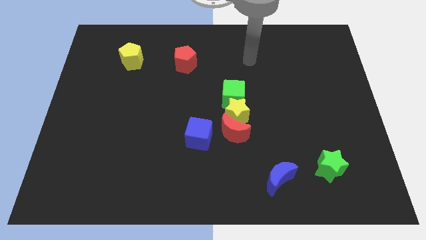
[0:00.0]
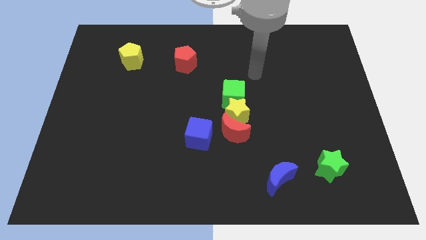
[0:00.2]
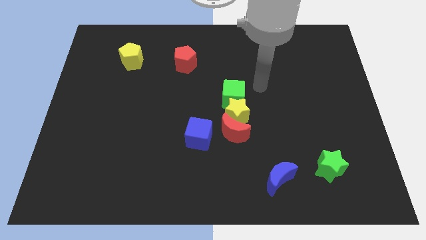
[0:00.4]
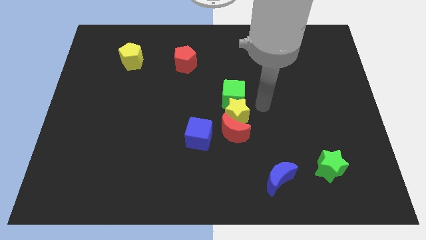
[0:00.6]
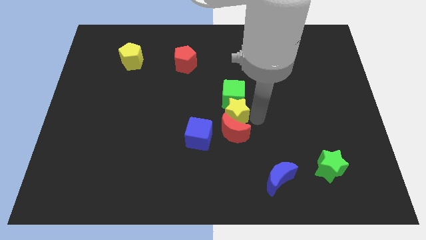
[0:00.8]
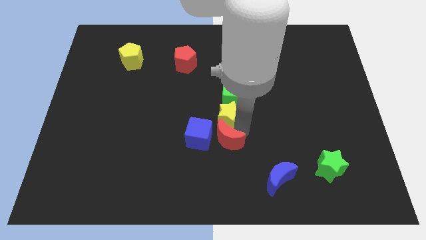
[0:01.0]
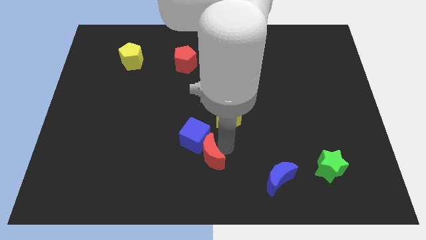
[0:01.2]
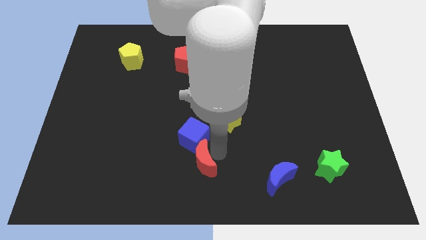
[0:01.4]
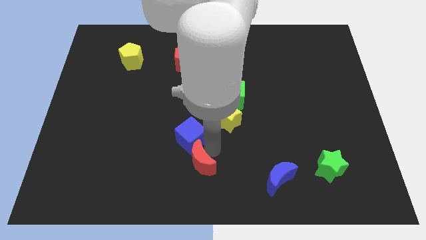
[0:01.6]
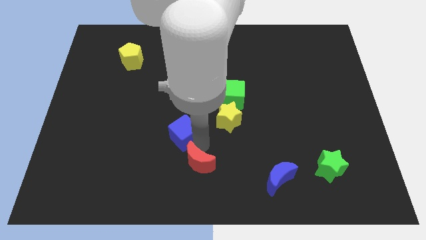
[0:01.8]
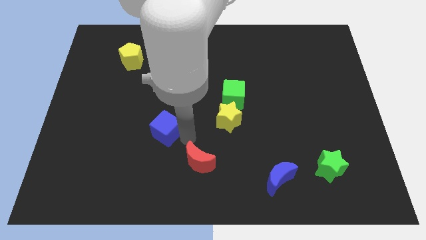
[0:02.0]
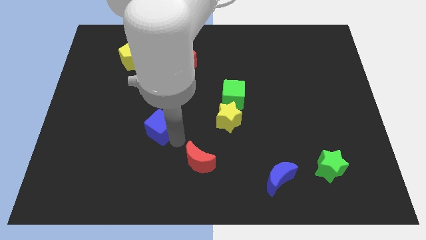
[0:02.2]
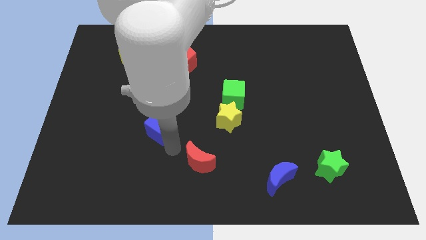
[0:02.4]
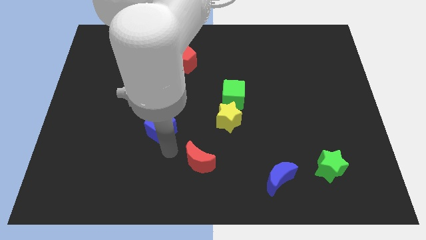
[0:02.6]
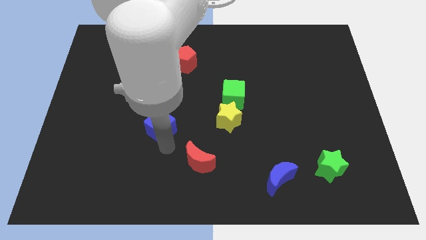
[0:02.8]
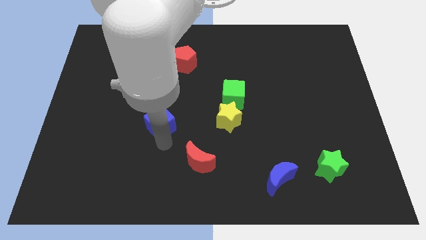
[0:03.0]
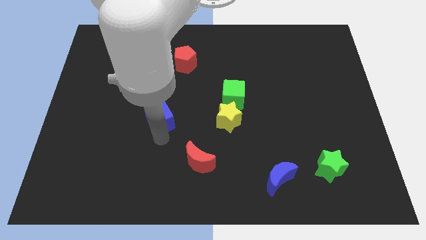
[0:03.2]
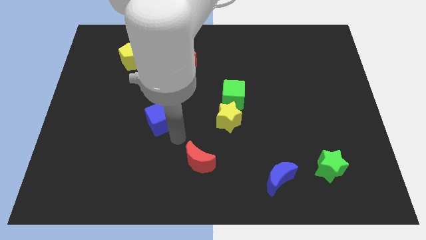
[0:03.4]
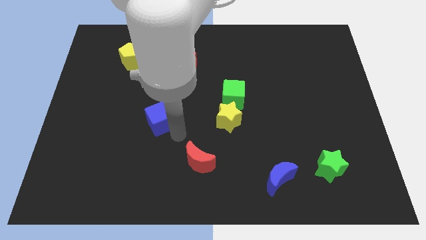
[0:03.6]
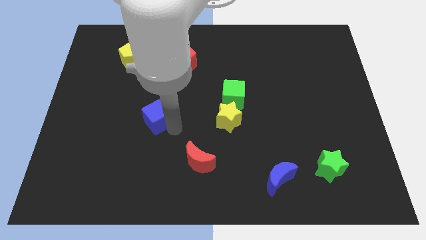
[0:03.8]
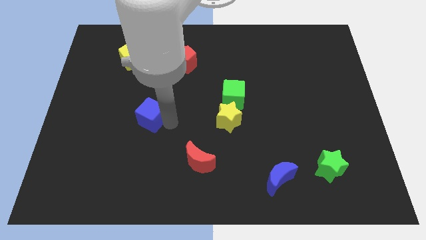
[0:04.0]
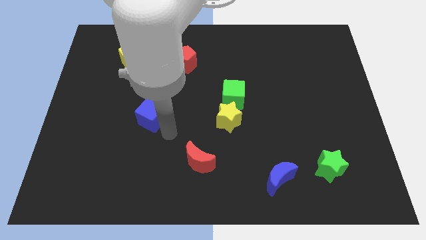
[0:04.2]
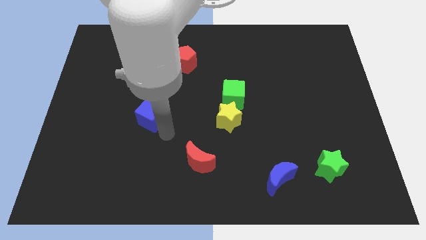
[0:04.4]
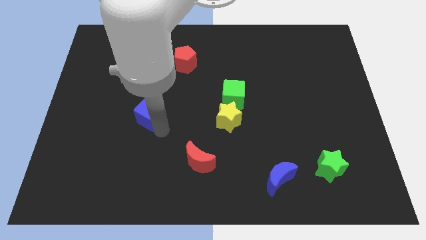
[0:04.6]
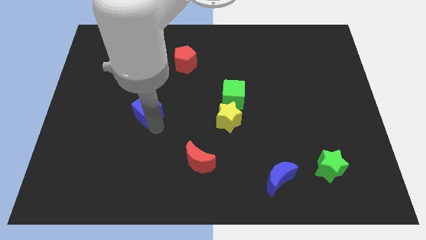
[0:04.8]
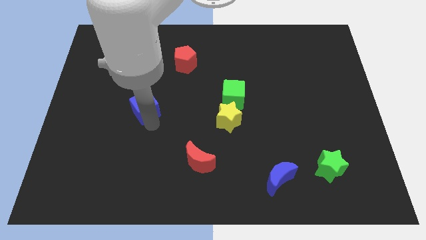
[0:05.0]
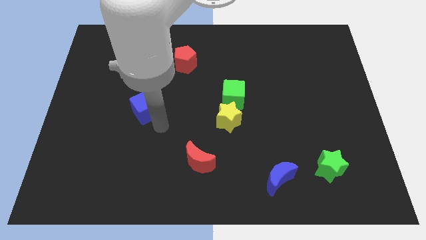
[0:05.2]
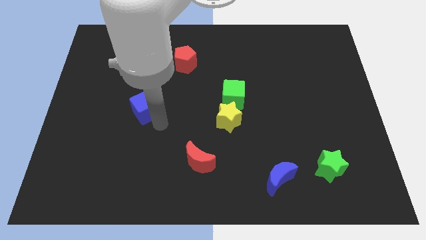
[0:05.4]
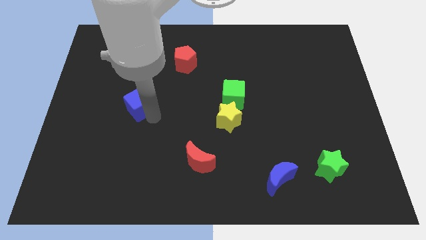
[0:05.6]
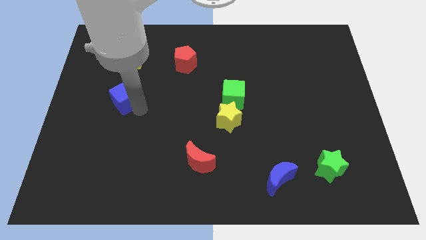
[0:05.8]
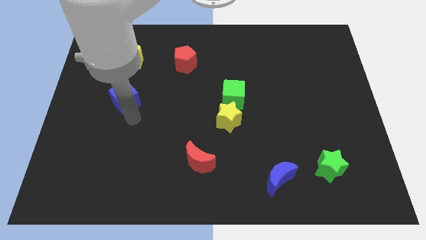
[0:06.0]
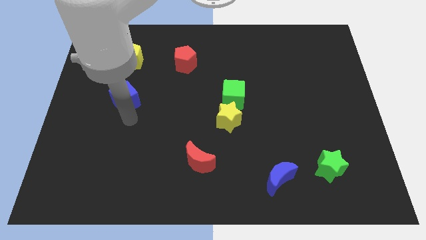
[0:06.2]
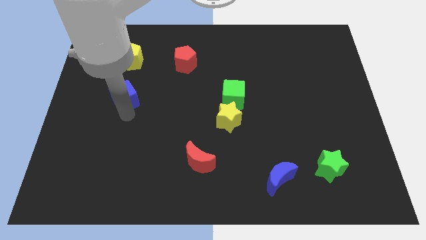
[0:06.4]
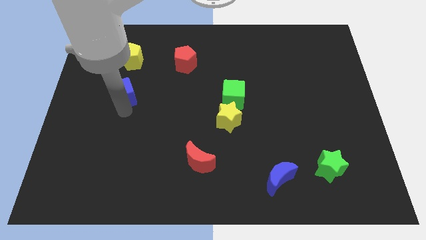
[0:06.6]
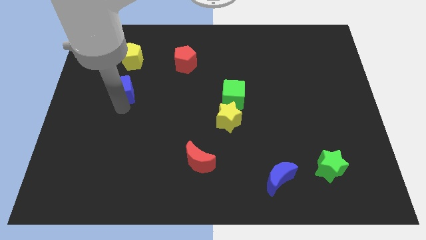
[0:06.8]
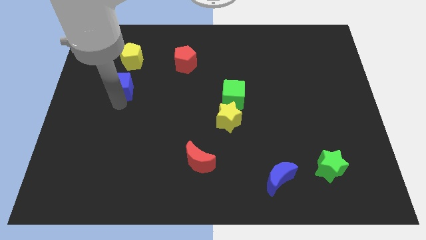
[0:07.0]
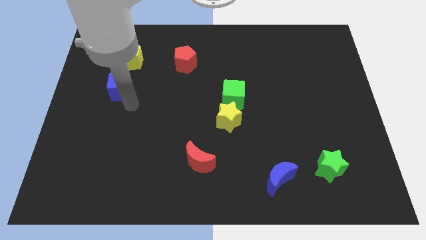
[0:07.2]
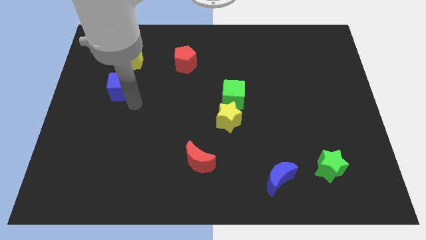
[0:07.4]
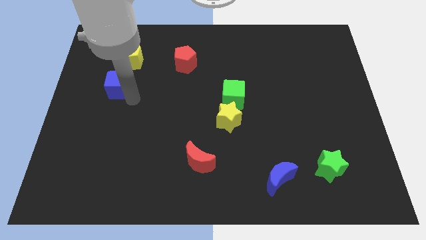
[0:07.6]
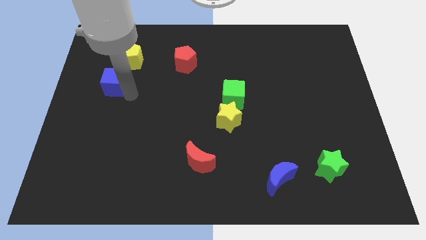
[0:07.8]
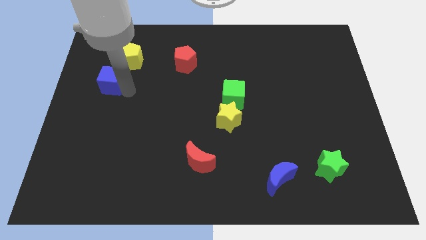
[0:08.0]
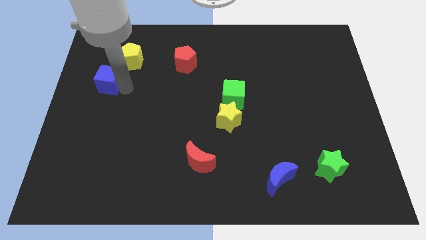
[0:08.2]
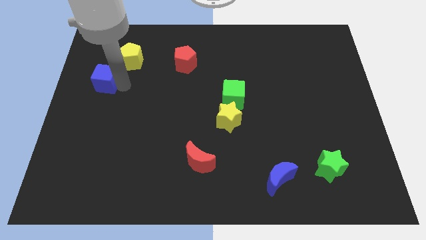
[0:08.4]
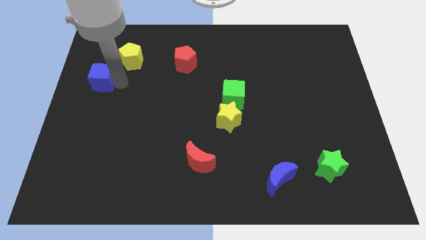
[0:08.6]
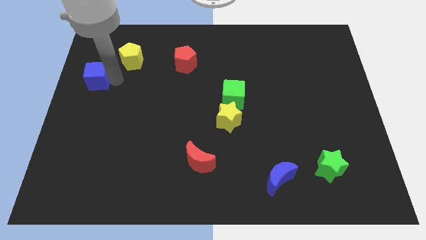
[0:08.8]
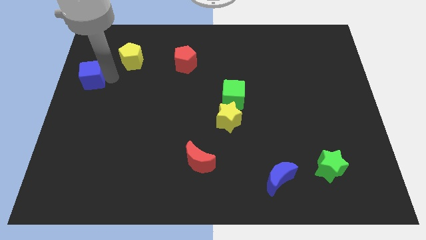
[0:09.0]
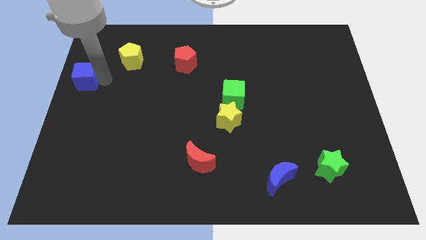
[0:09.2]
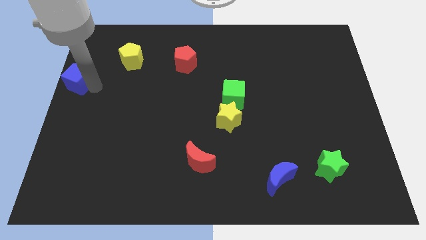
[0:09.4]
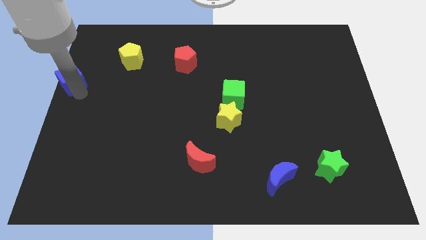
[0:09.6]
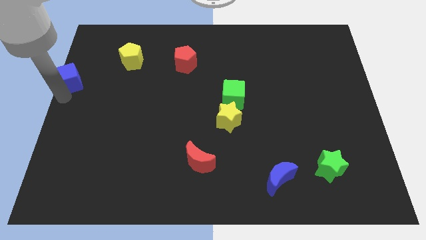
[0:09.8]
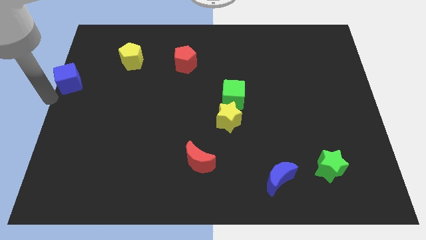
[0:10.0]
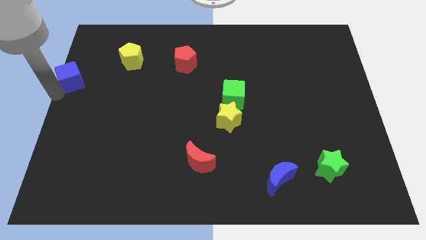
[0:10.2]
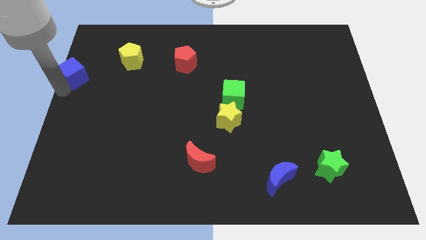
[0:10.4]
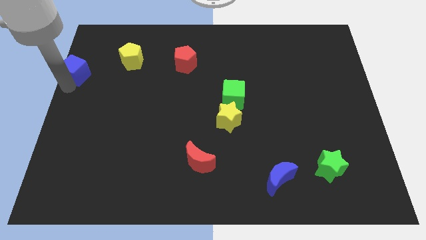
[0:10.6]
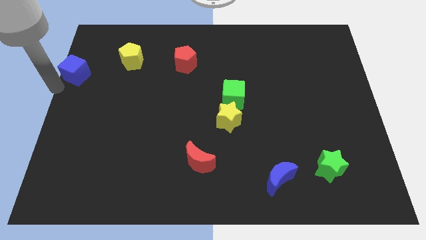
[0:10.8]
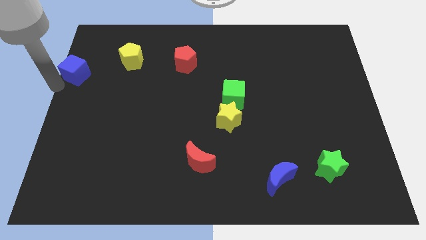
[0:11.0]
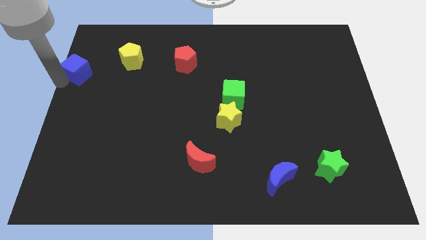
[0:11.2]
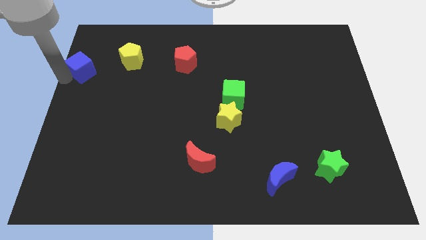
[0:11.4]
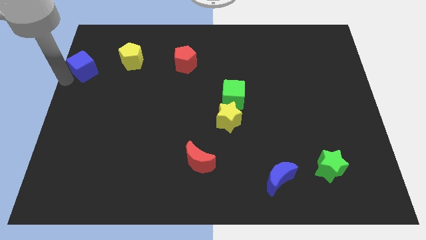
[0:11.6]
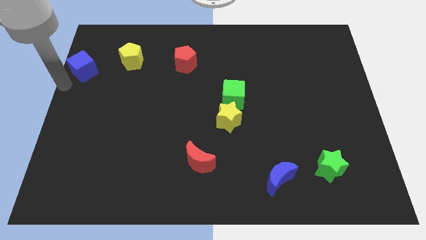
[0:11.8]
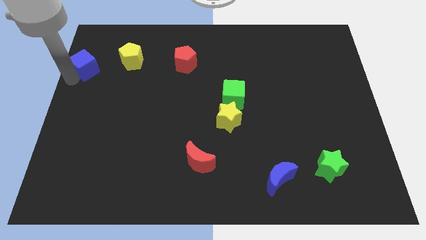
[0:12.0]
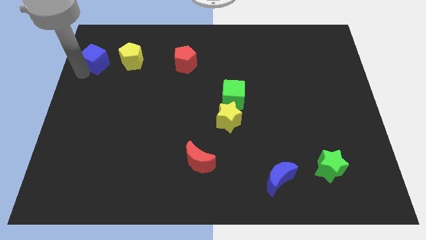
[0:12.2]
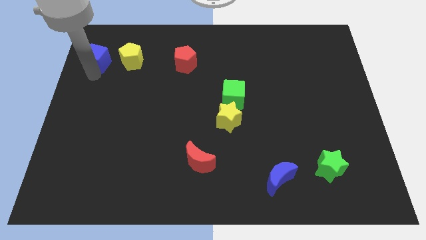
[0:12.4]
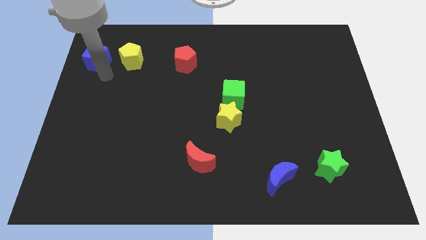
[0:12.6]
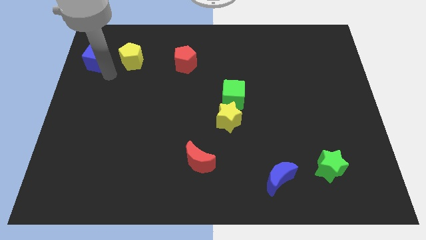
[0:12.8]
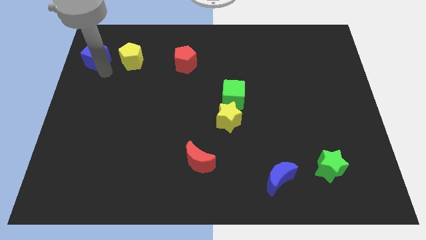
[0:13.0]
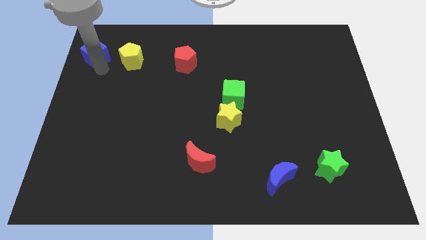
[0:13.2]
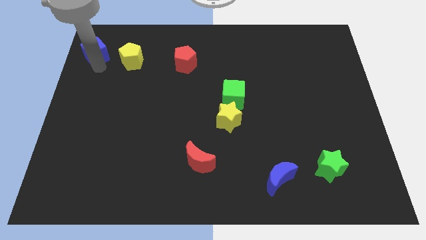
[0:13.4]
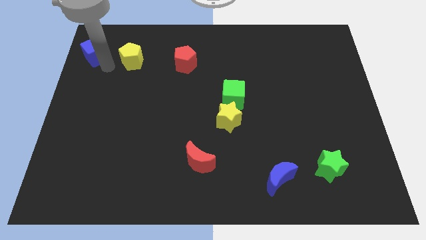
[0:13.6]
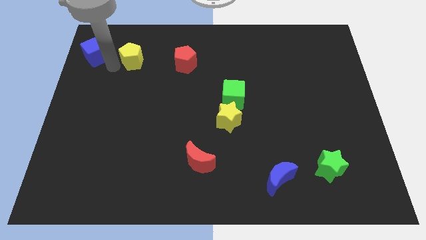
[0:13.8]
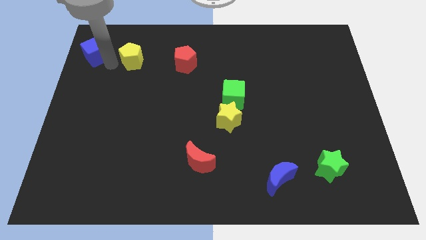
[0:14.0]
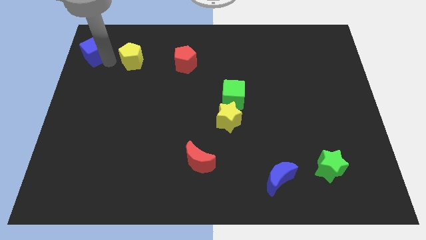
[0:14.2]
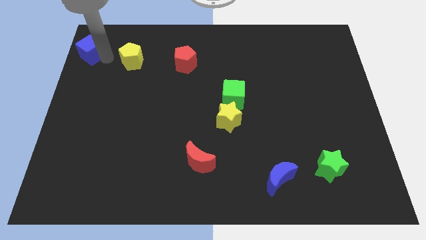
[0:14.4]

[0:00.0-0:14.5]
slide the blue cube to the top left
